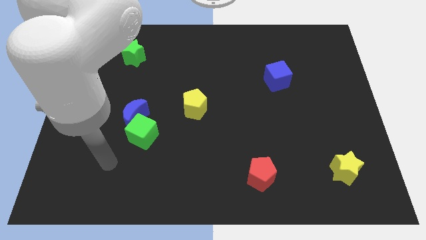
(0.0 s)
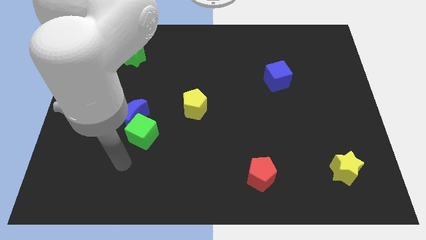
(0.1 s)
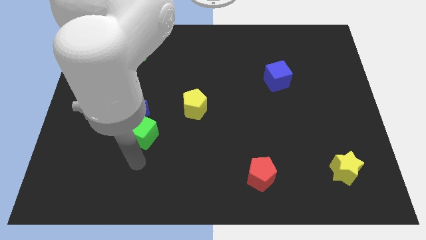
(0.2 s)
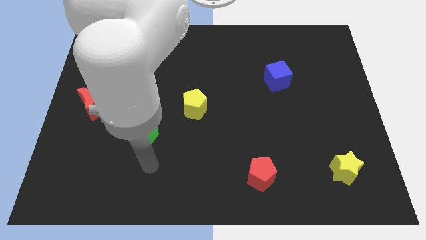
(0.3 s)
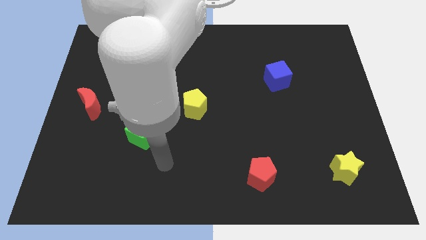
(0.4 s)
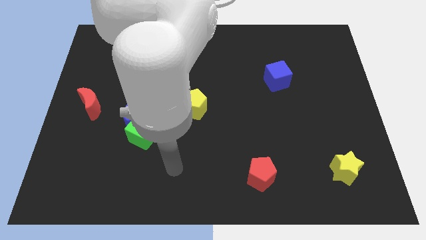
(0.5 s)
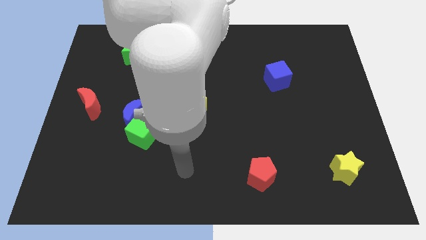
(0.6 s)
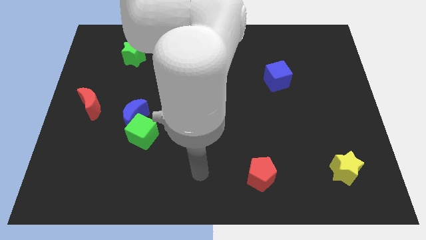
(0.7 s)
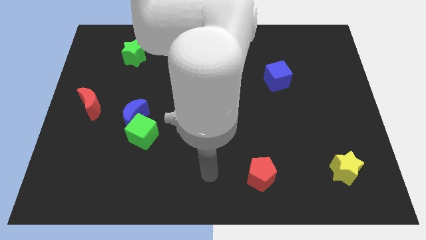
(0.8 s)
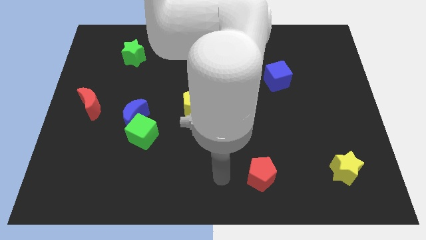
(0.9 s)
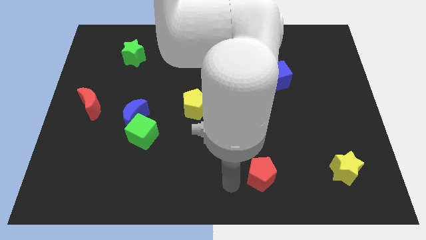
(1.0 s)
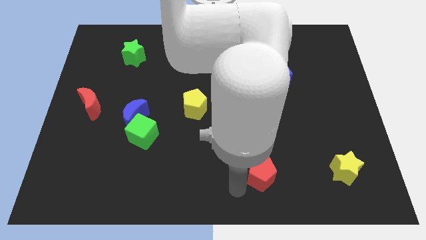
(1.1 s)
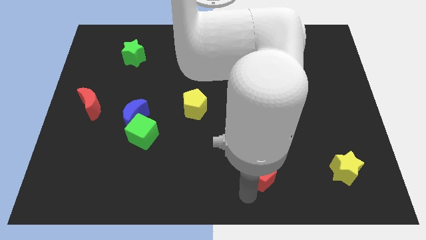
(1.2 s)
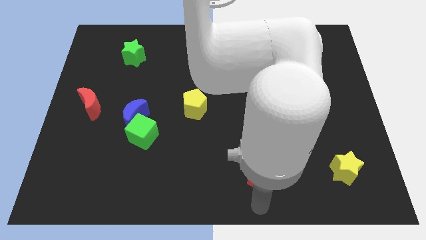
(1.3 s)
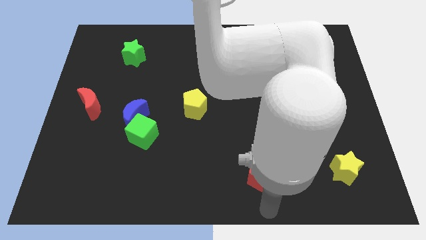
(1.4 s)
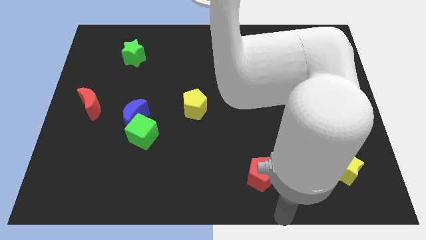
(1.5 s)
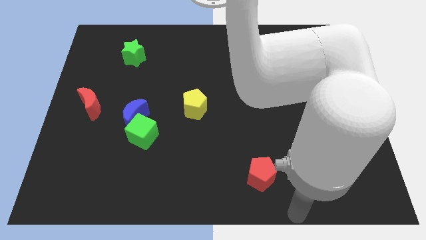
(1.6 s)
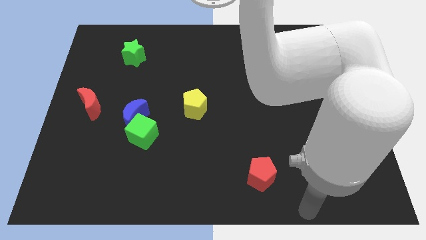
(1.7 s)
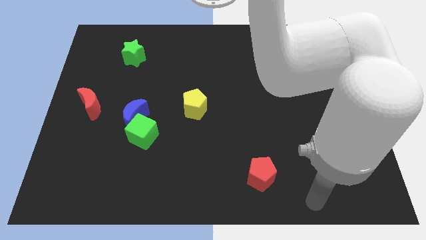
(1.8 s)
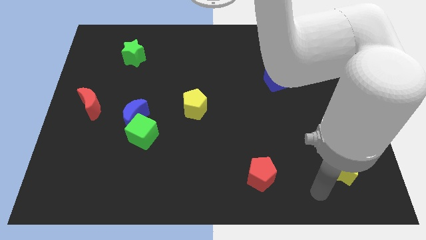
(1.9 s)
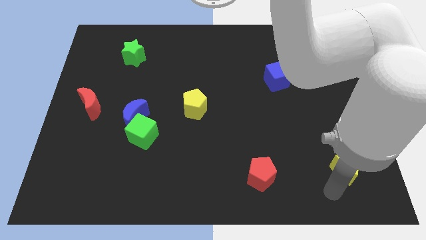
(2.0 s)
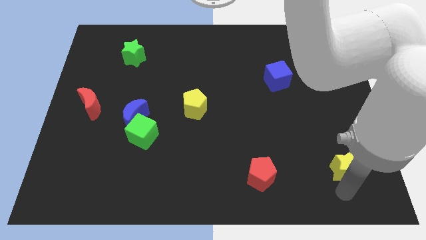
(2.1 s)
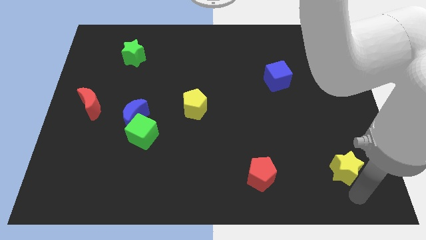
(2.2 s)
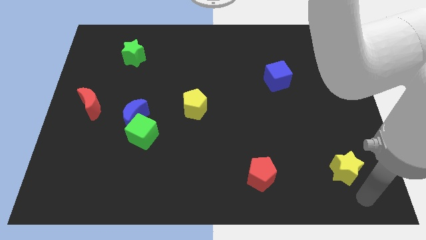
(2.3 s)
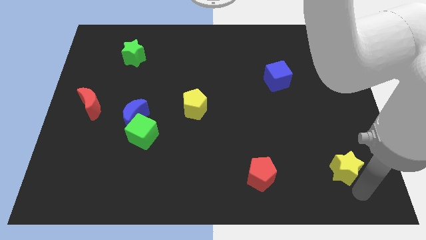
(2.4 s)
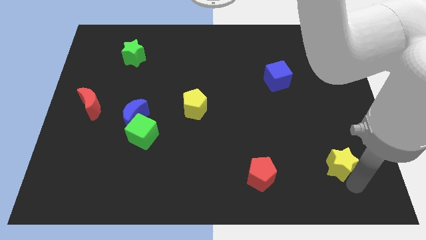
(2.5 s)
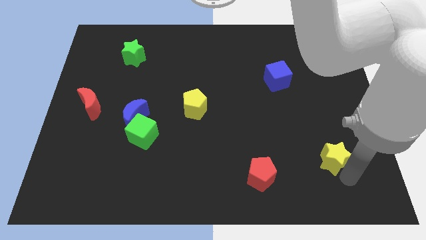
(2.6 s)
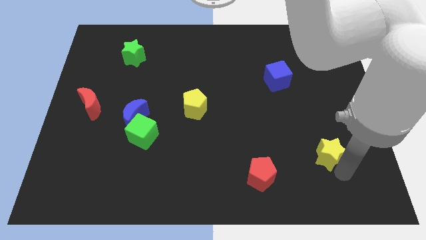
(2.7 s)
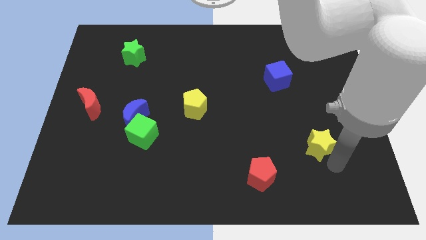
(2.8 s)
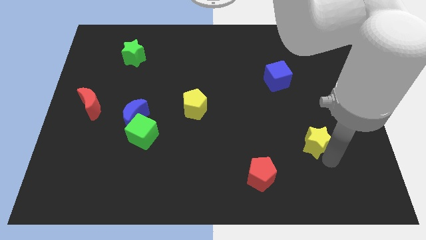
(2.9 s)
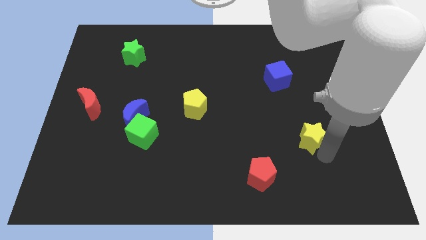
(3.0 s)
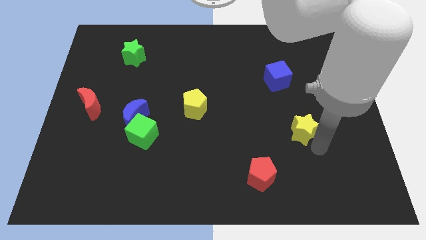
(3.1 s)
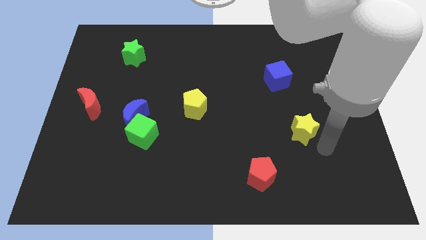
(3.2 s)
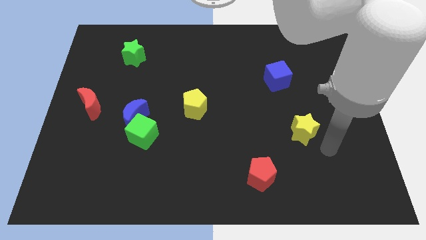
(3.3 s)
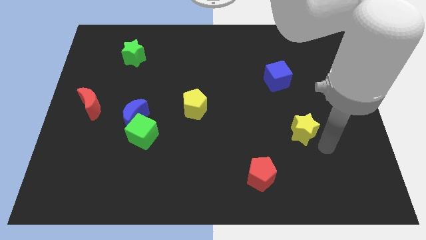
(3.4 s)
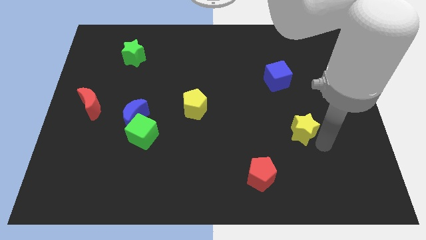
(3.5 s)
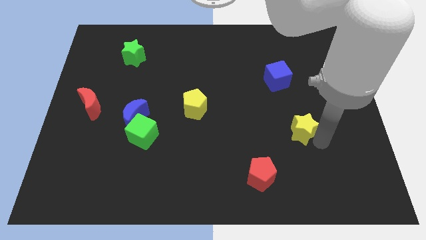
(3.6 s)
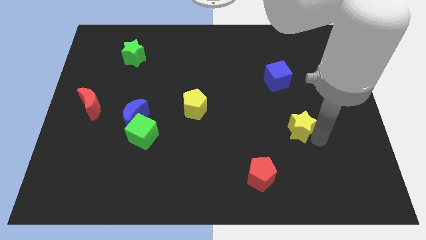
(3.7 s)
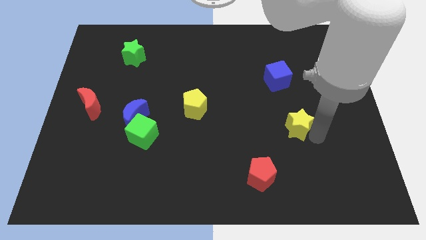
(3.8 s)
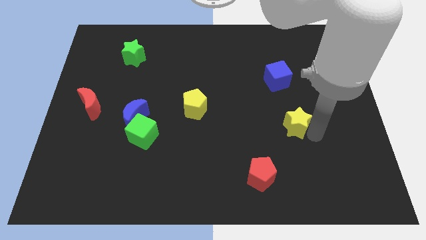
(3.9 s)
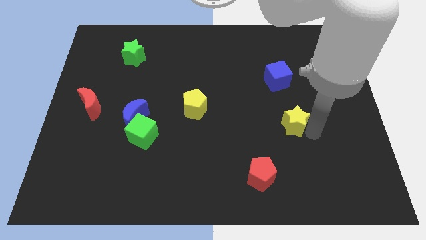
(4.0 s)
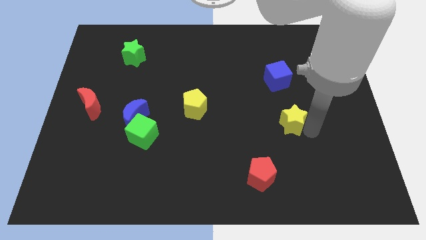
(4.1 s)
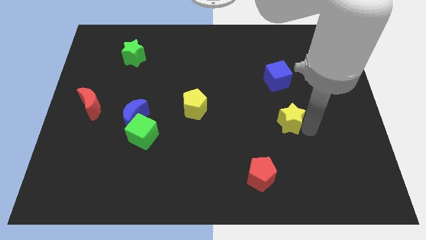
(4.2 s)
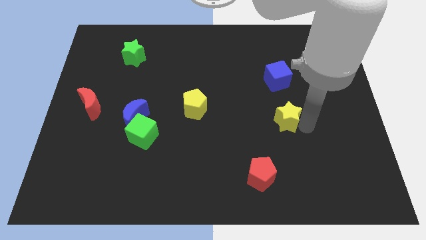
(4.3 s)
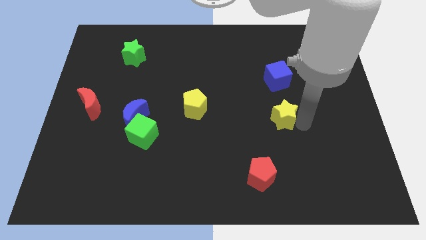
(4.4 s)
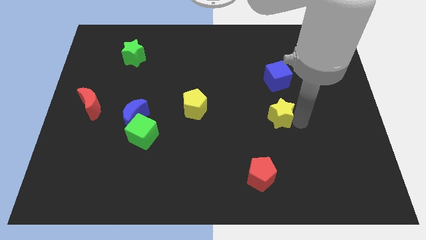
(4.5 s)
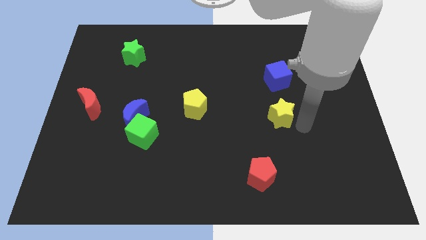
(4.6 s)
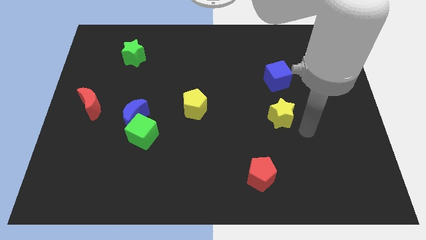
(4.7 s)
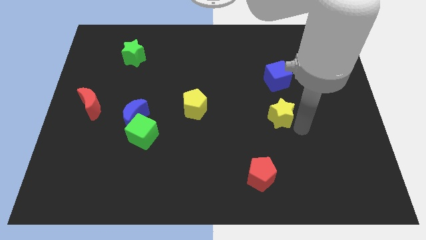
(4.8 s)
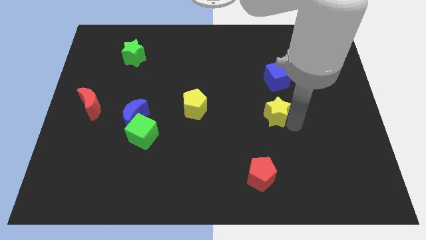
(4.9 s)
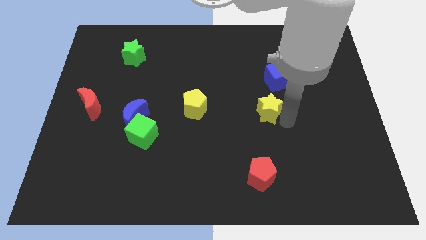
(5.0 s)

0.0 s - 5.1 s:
push the yellow star upwards and to the left

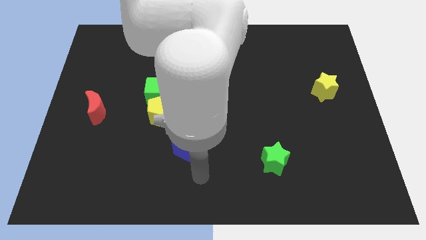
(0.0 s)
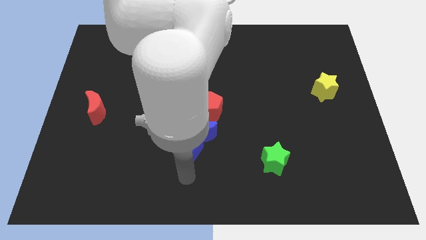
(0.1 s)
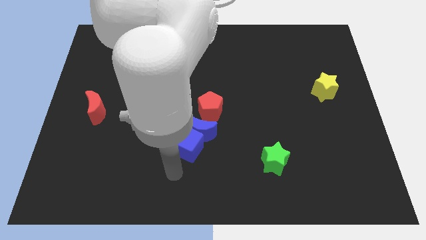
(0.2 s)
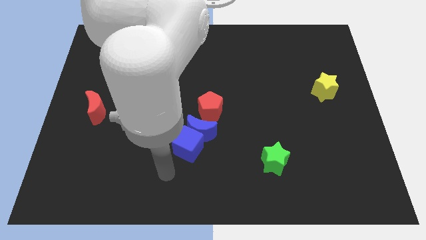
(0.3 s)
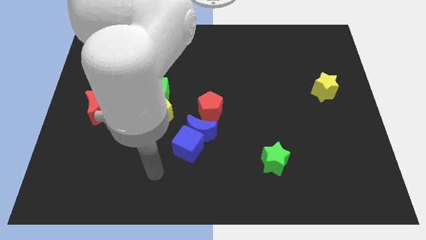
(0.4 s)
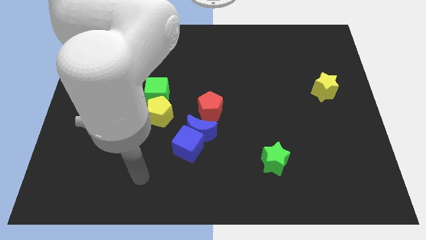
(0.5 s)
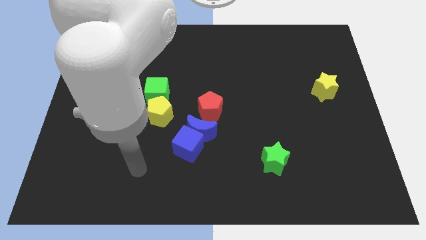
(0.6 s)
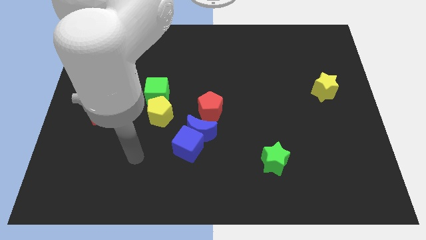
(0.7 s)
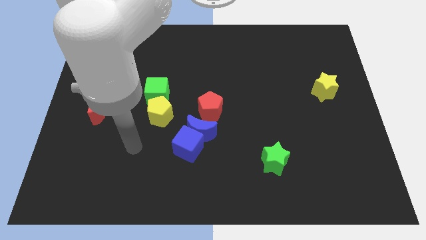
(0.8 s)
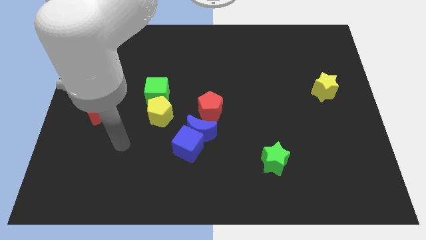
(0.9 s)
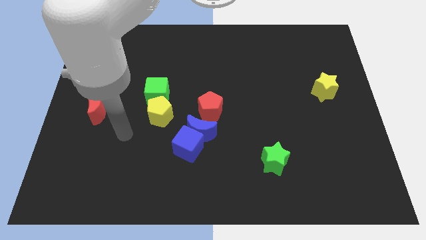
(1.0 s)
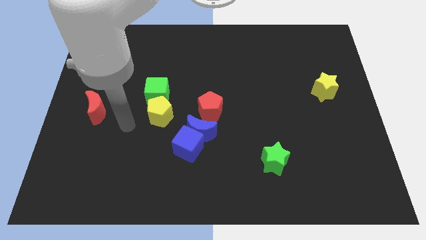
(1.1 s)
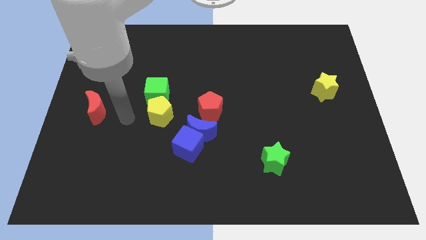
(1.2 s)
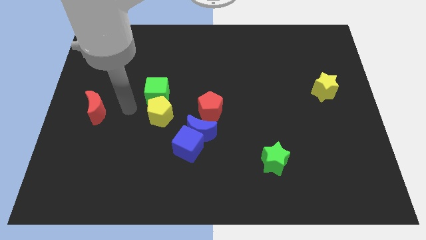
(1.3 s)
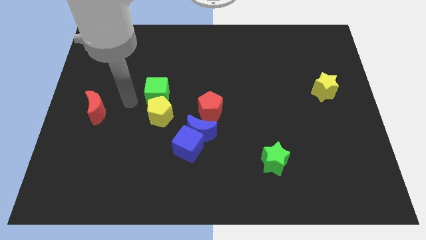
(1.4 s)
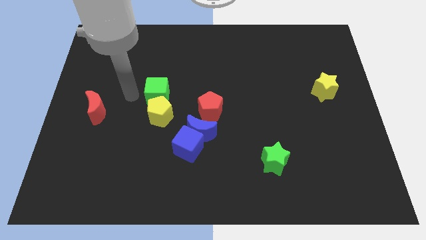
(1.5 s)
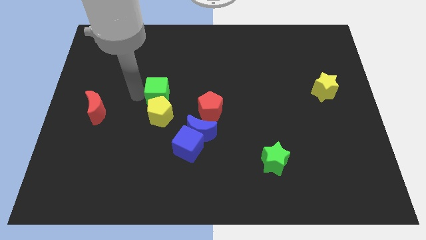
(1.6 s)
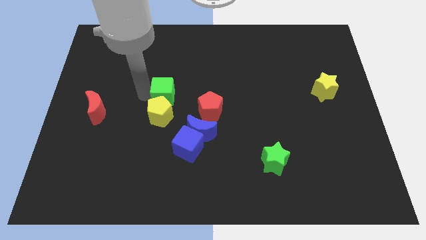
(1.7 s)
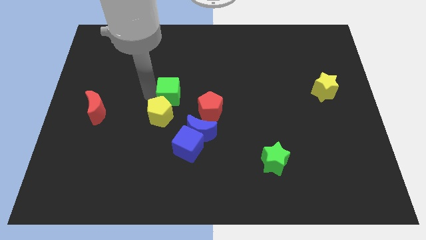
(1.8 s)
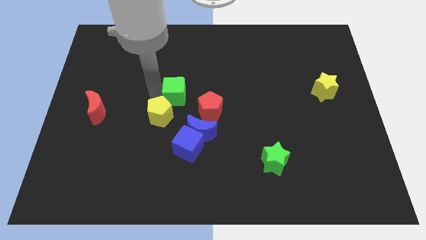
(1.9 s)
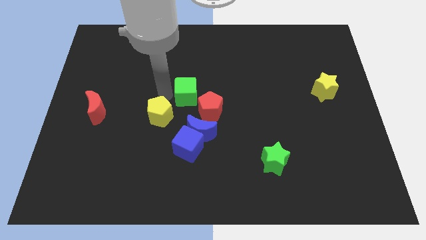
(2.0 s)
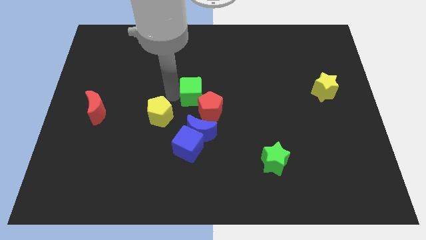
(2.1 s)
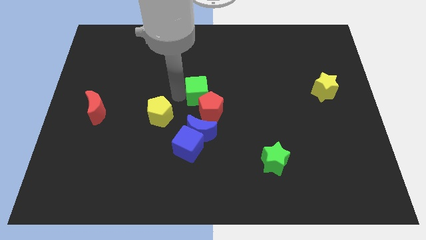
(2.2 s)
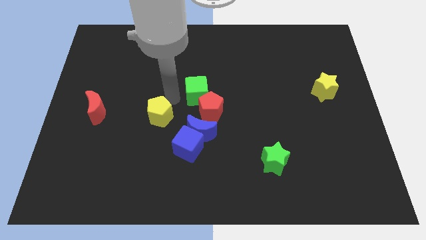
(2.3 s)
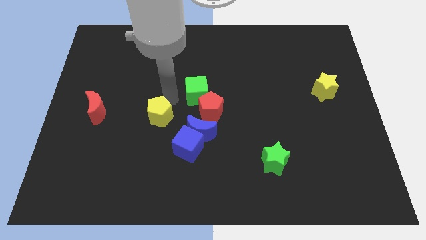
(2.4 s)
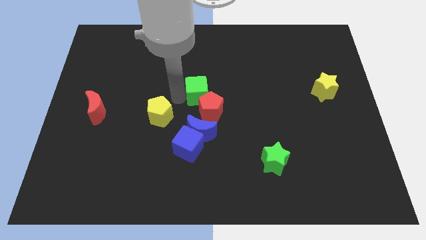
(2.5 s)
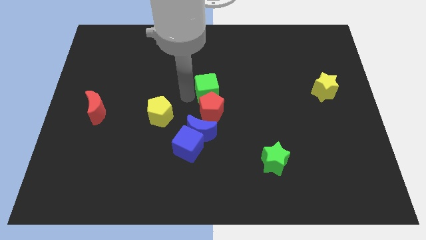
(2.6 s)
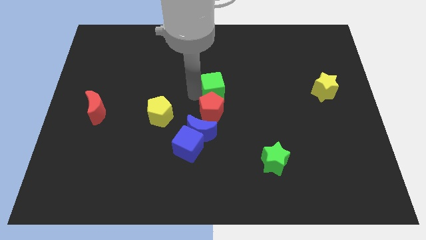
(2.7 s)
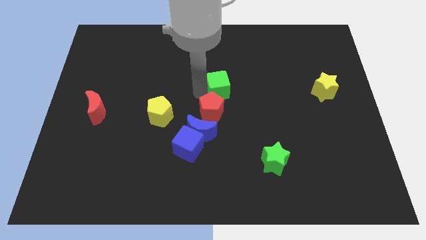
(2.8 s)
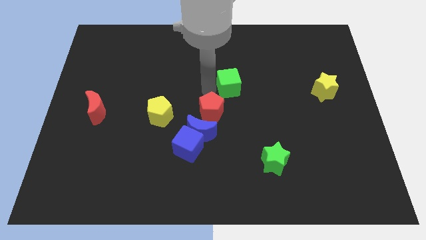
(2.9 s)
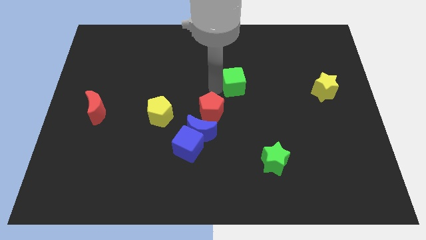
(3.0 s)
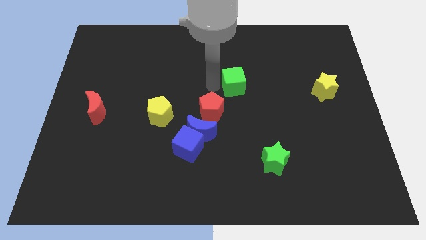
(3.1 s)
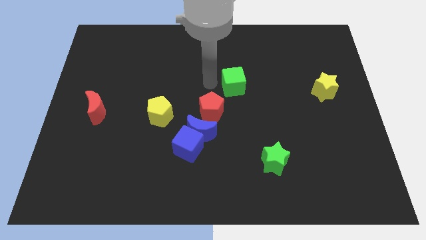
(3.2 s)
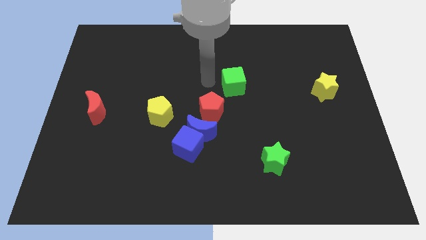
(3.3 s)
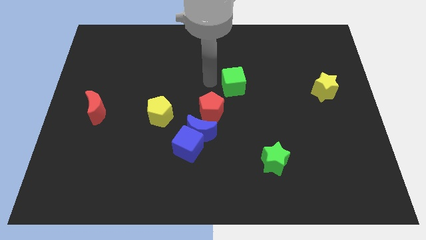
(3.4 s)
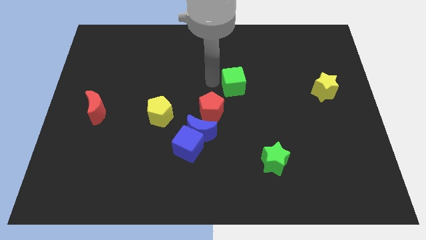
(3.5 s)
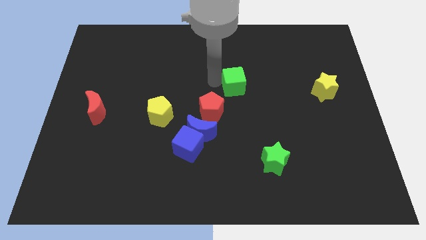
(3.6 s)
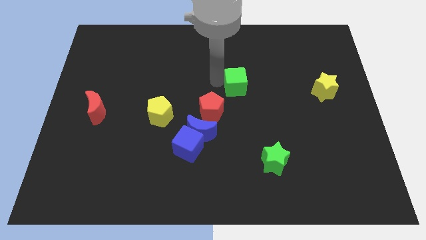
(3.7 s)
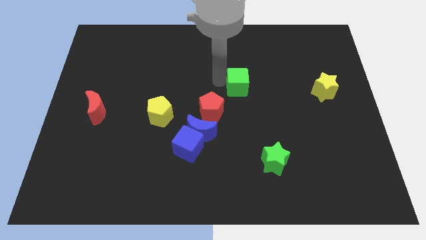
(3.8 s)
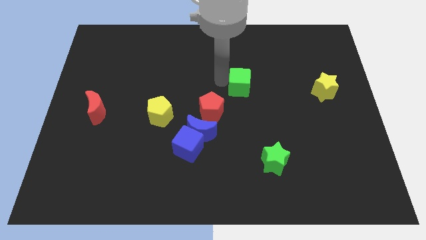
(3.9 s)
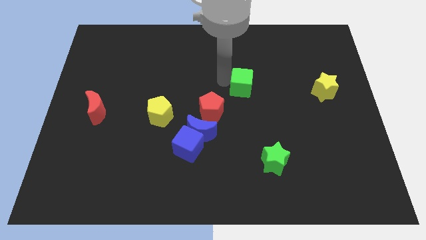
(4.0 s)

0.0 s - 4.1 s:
slide the green cube right
